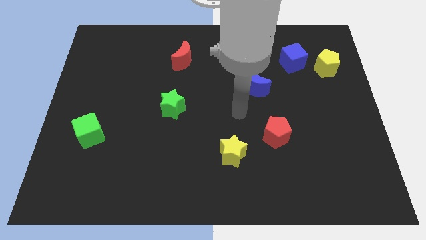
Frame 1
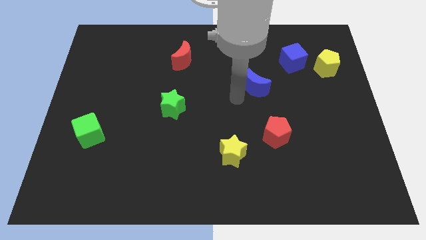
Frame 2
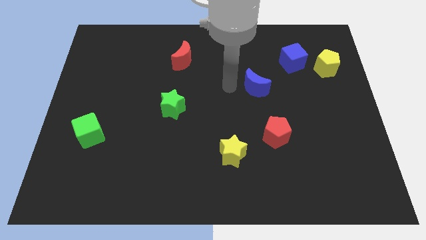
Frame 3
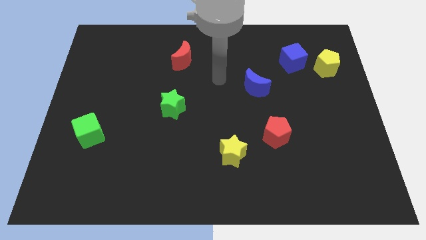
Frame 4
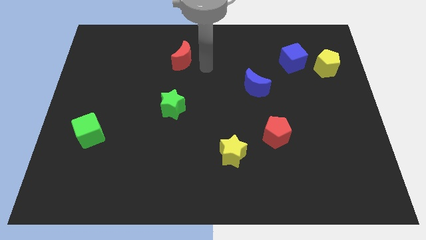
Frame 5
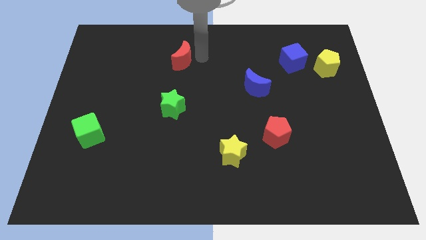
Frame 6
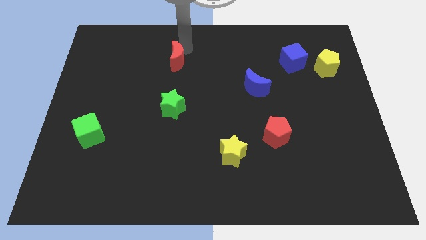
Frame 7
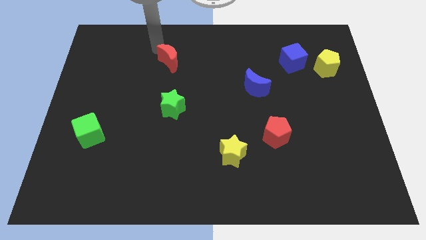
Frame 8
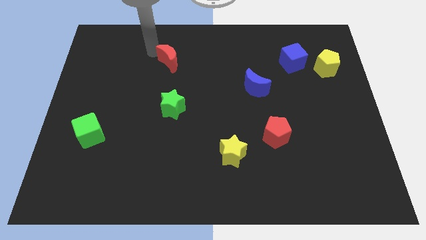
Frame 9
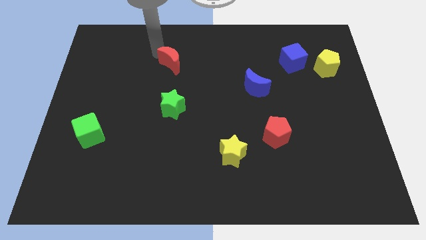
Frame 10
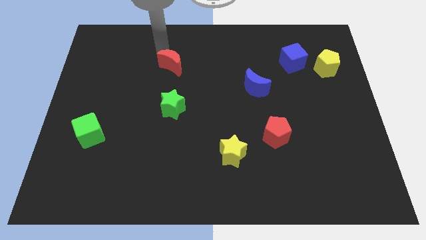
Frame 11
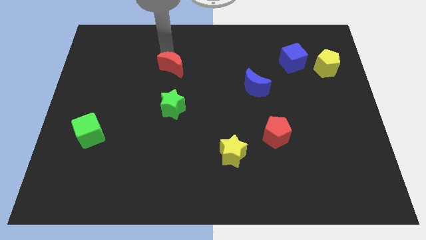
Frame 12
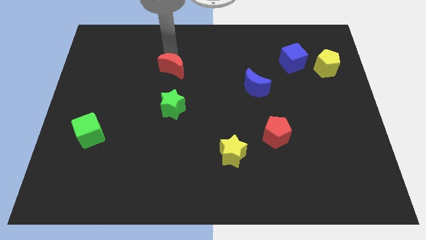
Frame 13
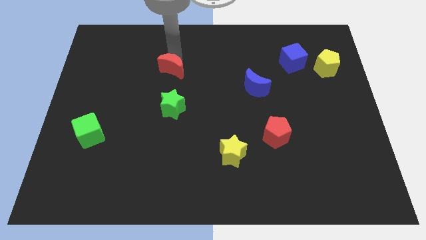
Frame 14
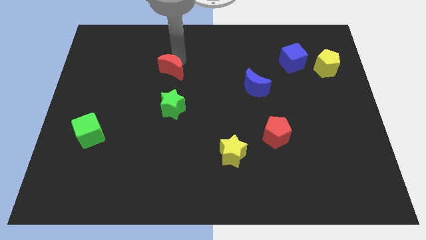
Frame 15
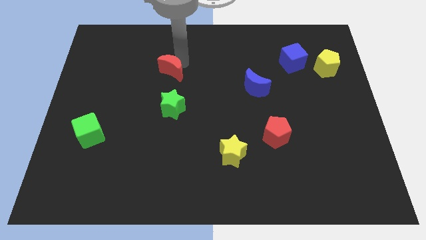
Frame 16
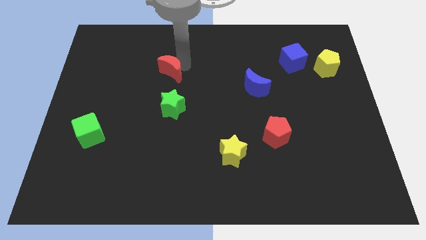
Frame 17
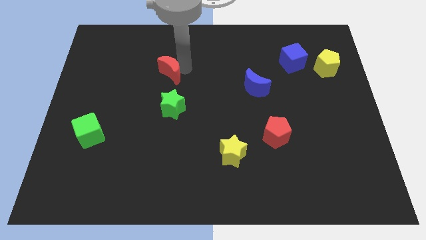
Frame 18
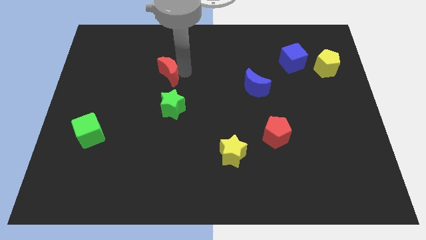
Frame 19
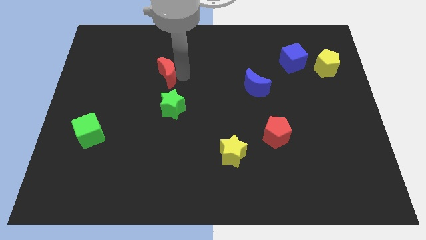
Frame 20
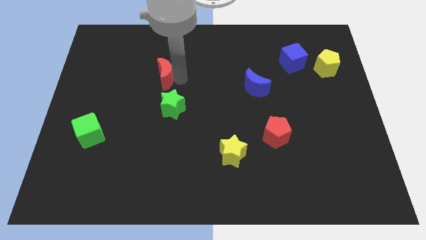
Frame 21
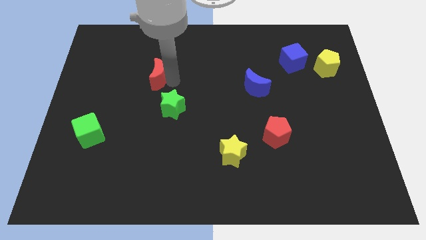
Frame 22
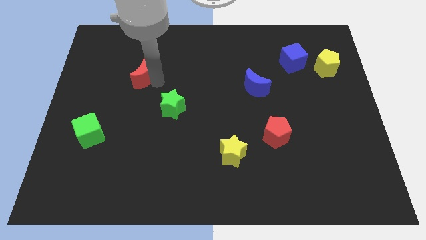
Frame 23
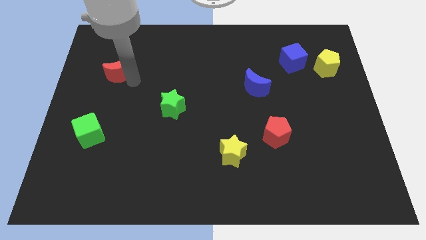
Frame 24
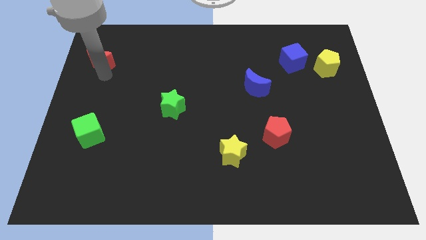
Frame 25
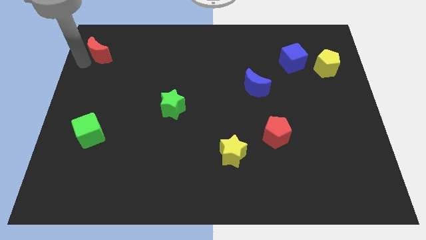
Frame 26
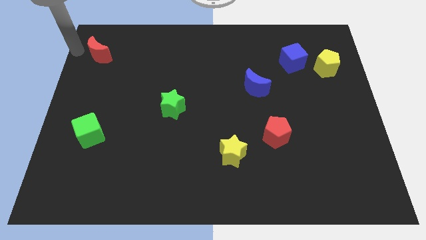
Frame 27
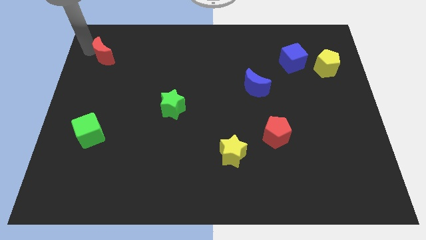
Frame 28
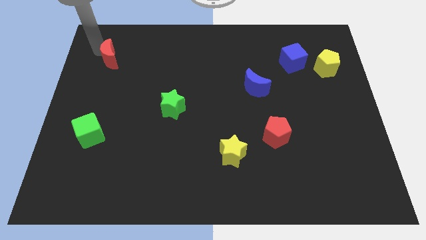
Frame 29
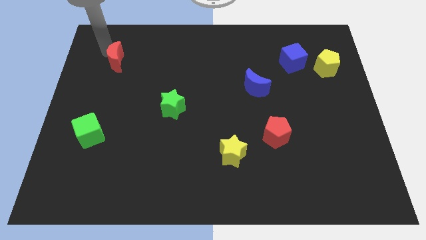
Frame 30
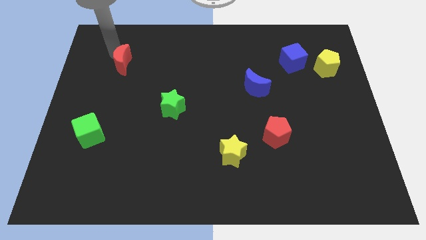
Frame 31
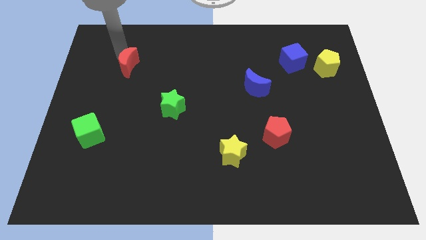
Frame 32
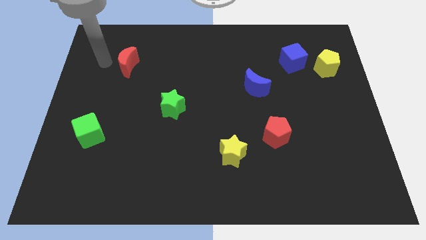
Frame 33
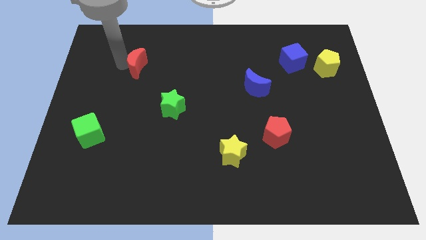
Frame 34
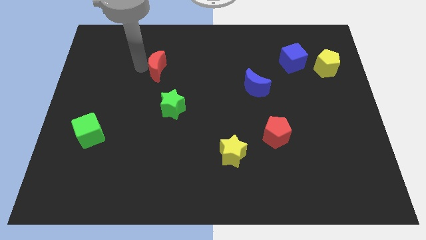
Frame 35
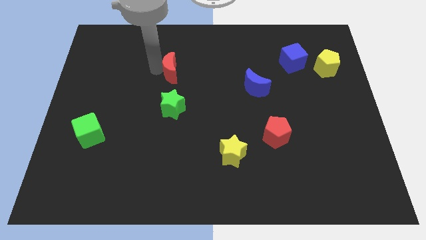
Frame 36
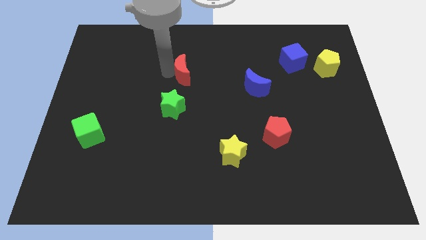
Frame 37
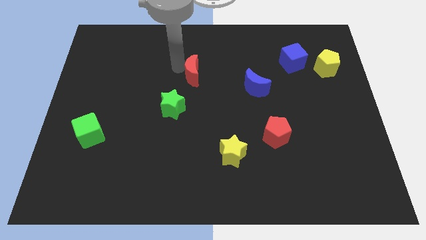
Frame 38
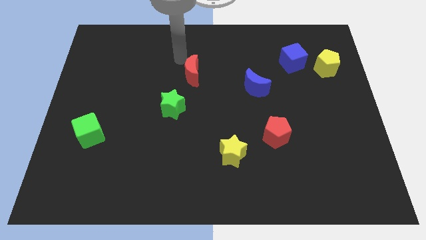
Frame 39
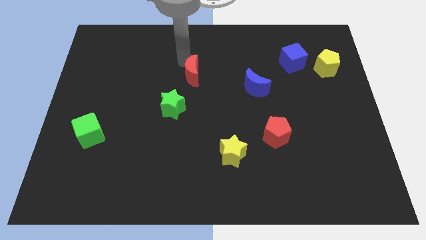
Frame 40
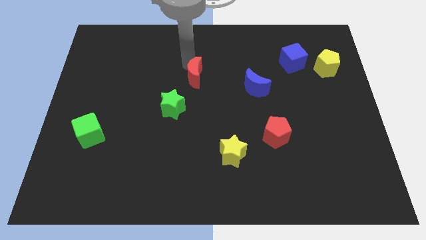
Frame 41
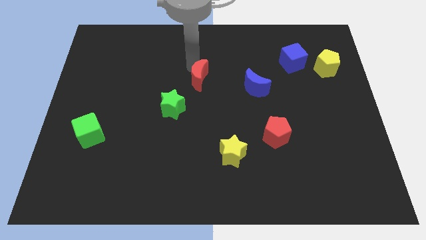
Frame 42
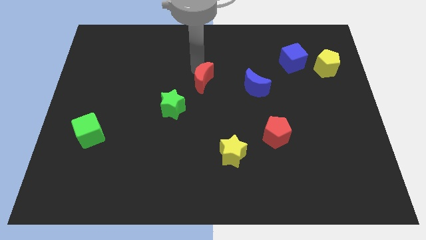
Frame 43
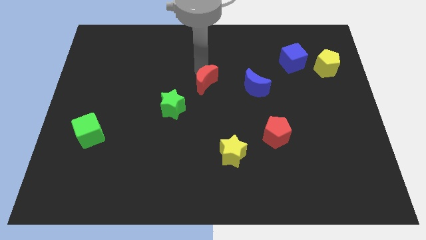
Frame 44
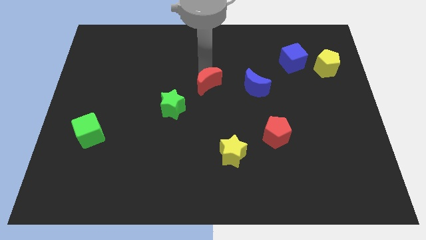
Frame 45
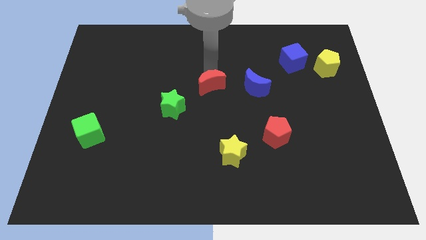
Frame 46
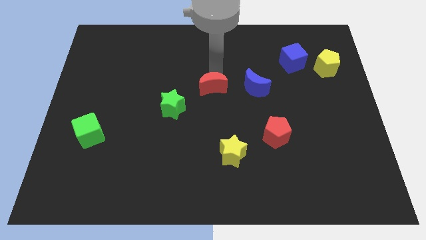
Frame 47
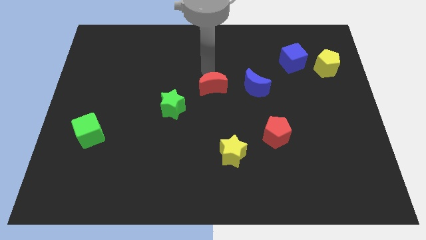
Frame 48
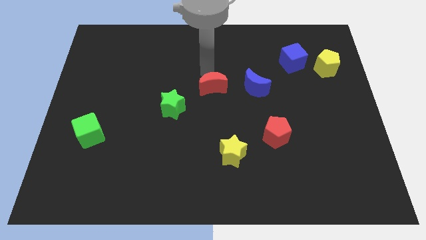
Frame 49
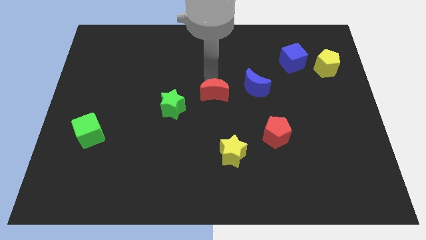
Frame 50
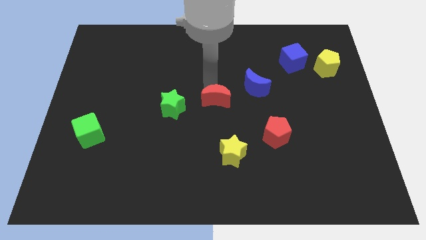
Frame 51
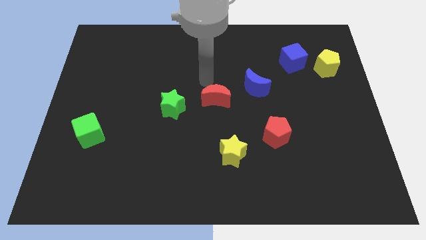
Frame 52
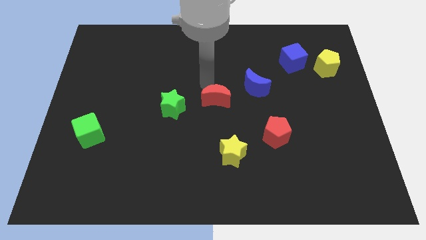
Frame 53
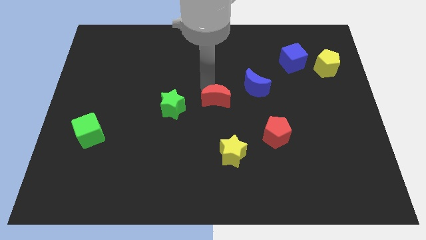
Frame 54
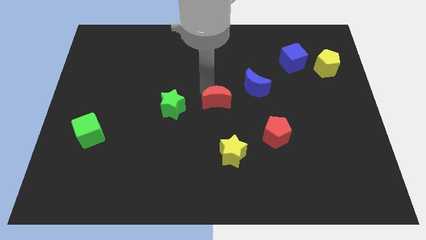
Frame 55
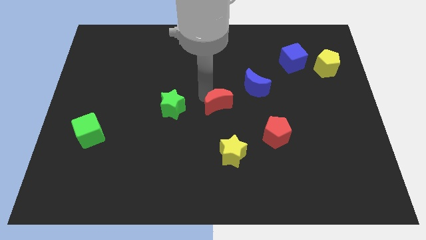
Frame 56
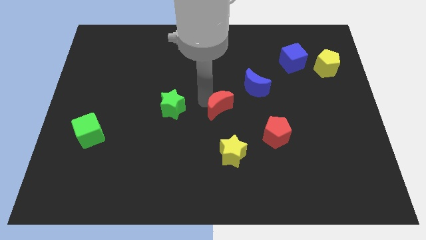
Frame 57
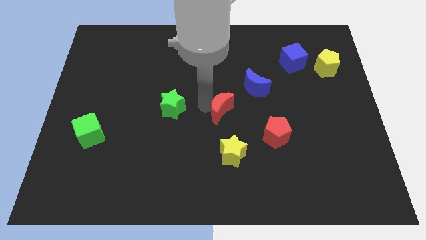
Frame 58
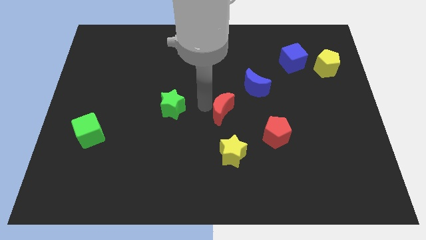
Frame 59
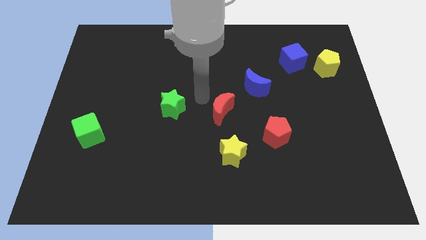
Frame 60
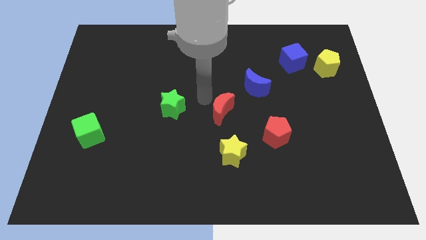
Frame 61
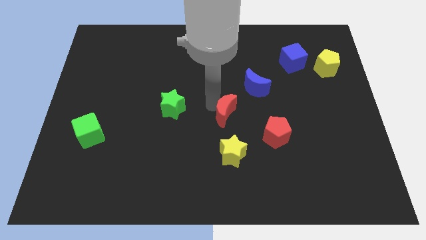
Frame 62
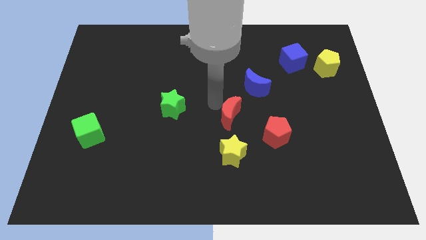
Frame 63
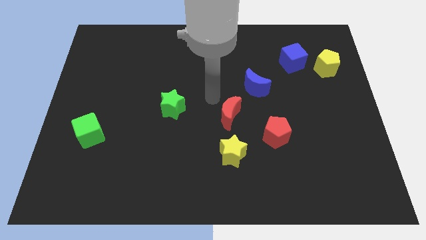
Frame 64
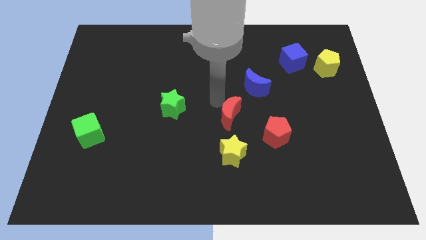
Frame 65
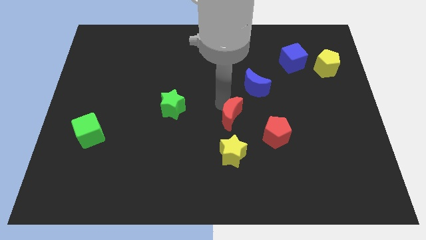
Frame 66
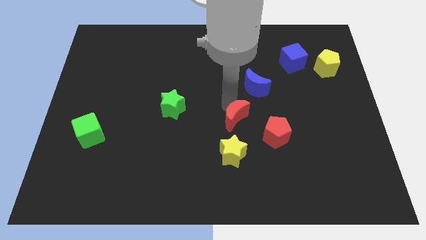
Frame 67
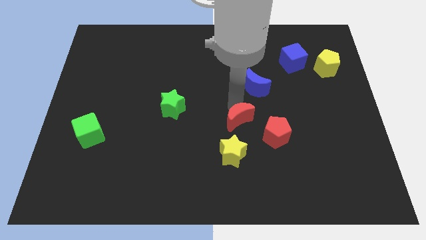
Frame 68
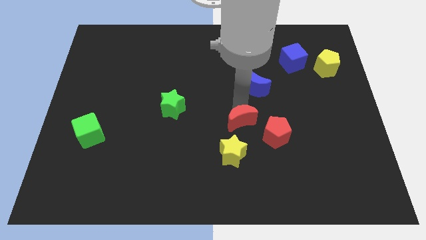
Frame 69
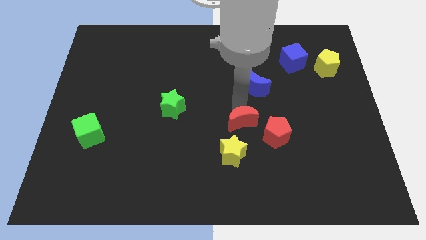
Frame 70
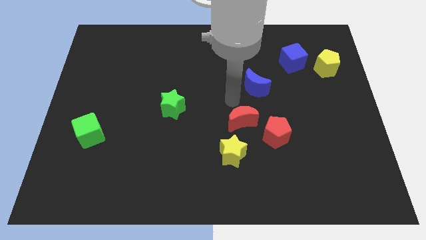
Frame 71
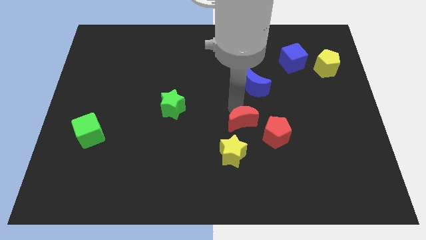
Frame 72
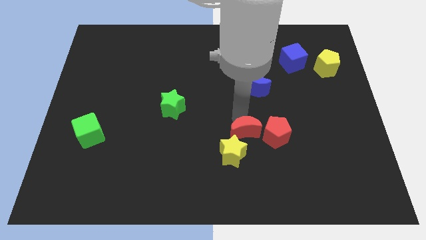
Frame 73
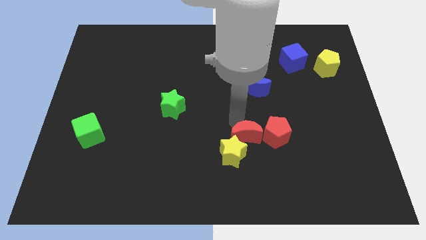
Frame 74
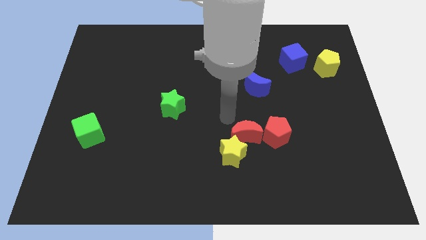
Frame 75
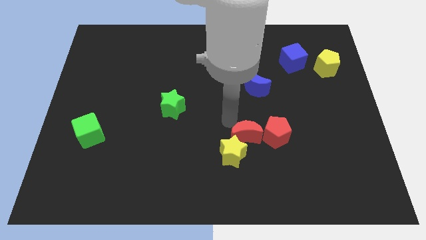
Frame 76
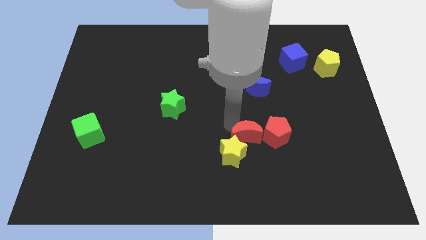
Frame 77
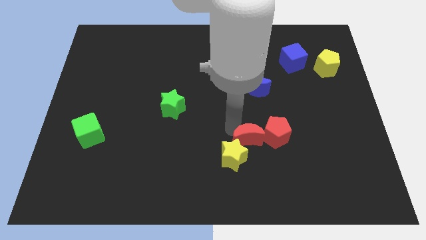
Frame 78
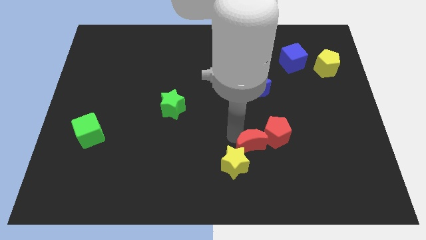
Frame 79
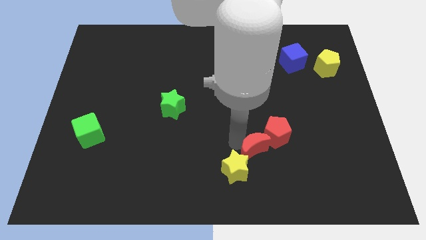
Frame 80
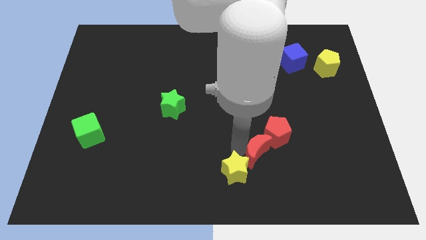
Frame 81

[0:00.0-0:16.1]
slide the red moon to the bottom side of the red pentagon
